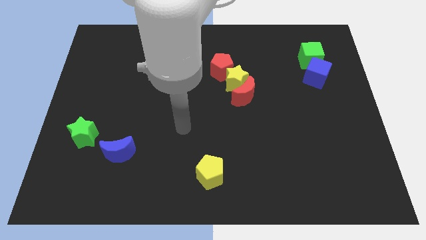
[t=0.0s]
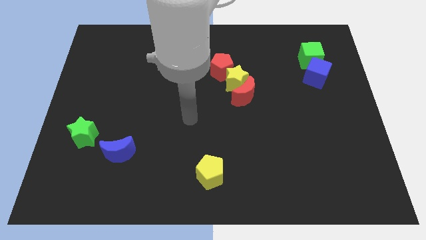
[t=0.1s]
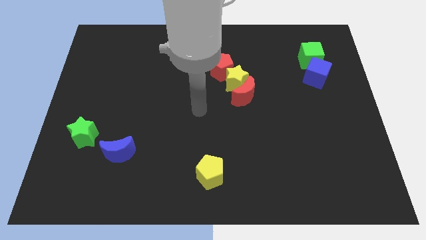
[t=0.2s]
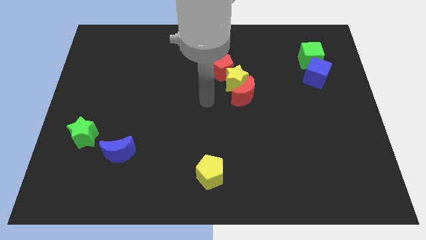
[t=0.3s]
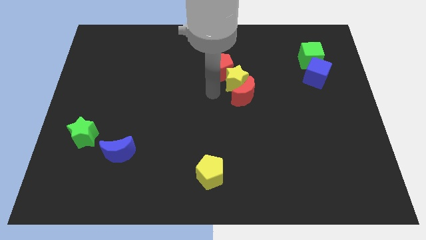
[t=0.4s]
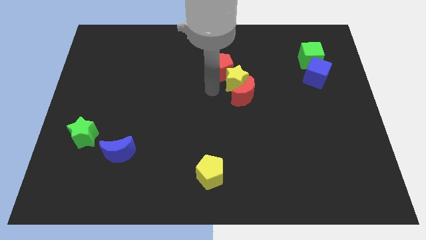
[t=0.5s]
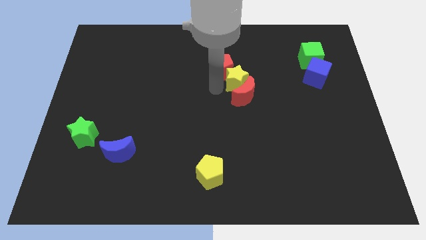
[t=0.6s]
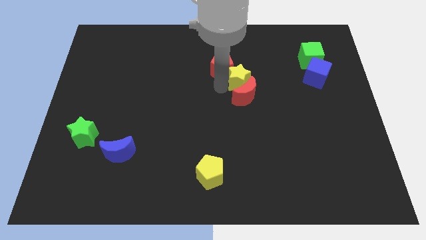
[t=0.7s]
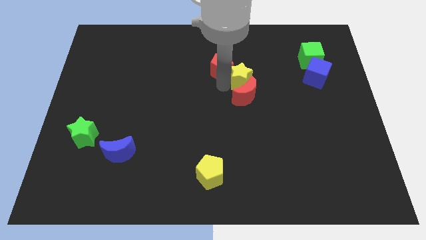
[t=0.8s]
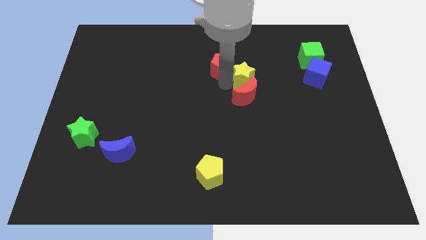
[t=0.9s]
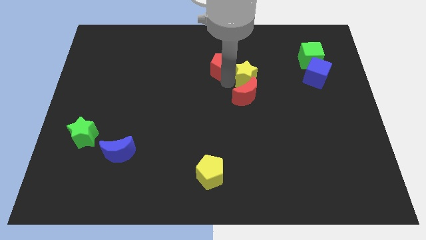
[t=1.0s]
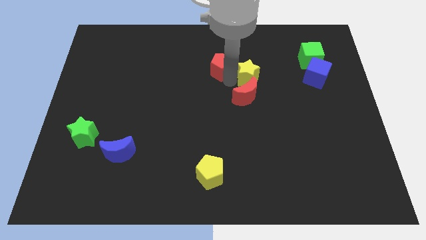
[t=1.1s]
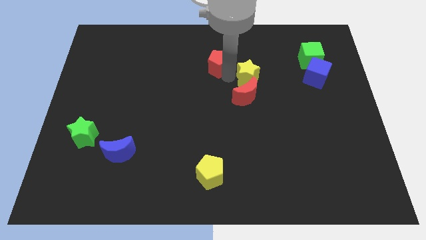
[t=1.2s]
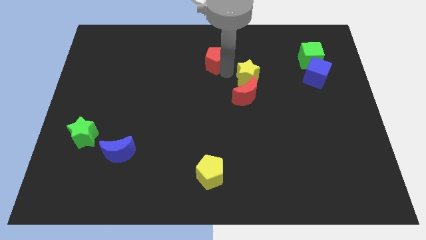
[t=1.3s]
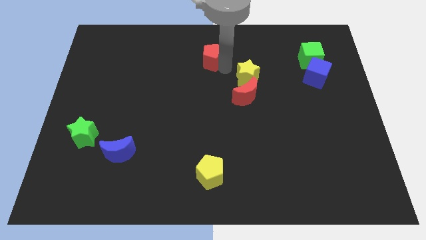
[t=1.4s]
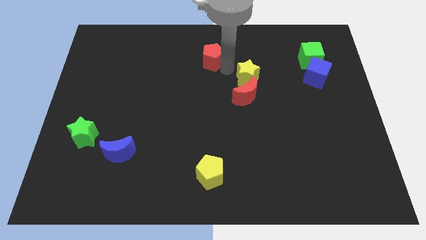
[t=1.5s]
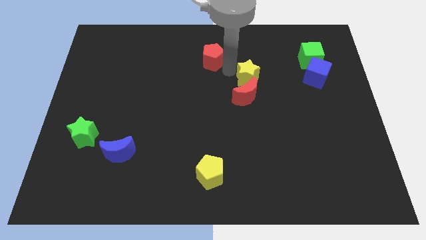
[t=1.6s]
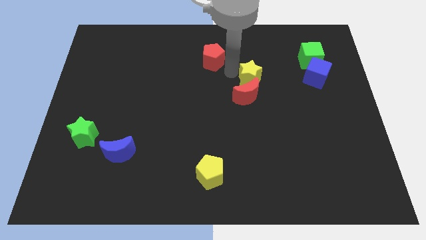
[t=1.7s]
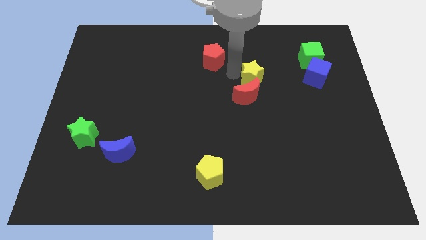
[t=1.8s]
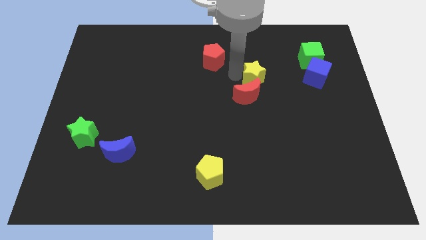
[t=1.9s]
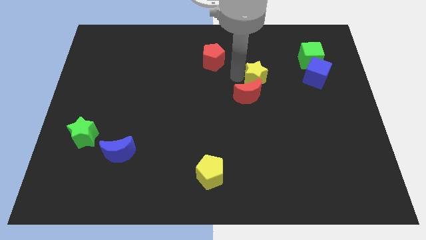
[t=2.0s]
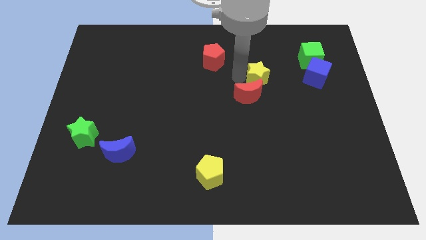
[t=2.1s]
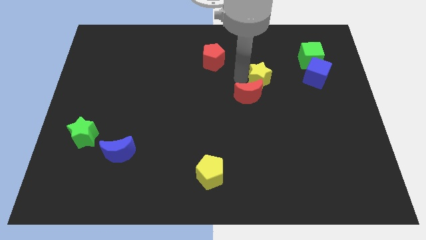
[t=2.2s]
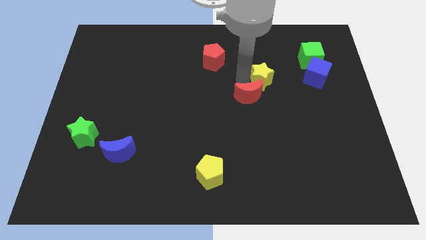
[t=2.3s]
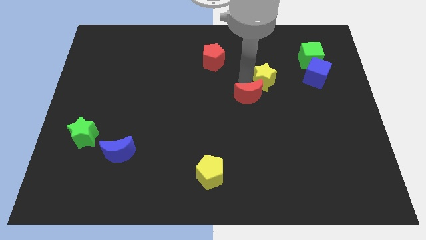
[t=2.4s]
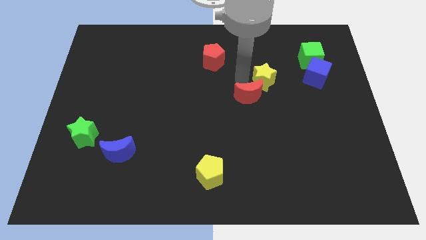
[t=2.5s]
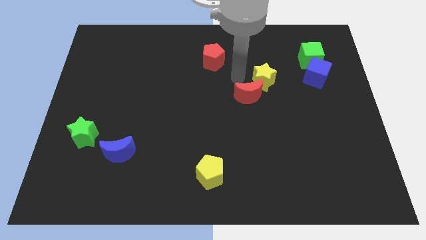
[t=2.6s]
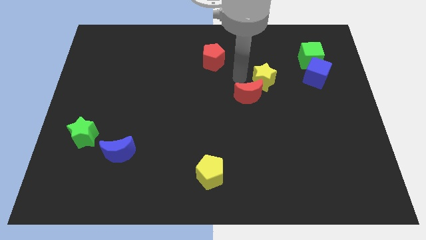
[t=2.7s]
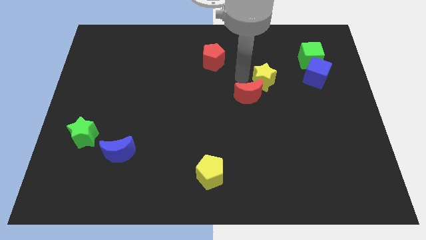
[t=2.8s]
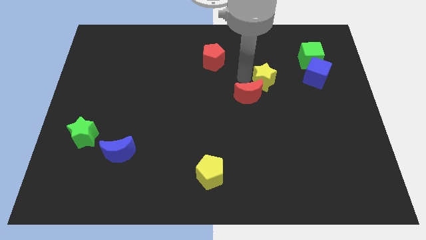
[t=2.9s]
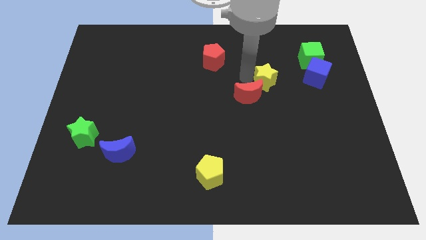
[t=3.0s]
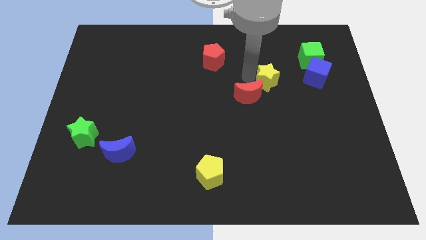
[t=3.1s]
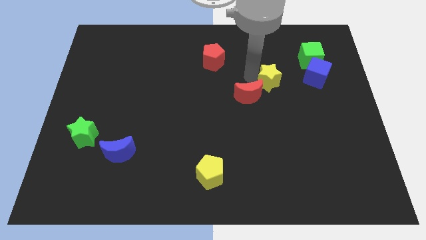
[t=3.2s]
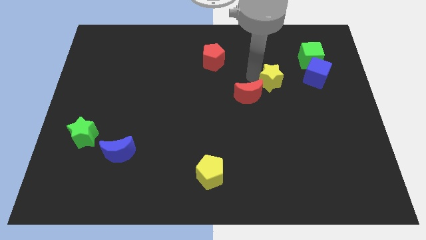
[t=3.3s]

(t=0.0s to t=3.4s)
pull the yellow star apart from the red moon and red pentagon

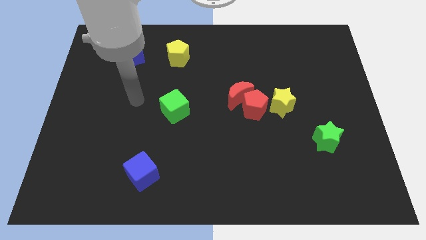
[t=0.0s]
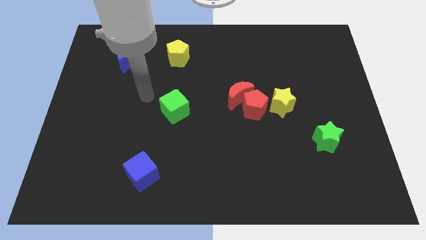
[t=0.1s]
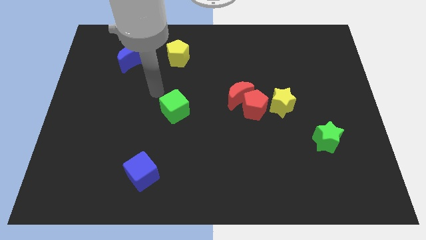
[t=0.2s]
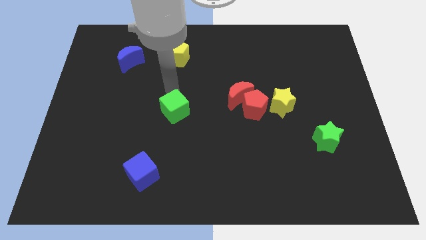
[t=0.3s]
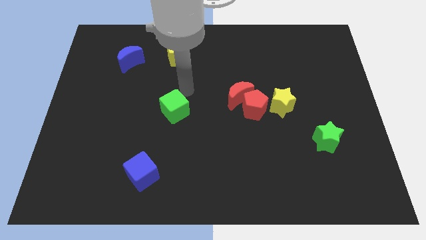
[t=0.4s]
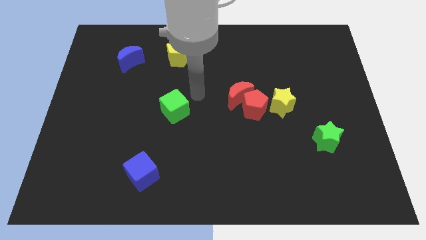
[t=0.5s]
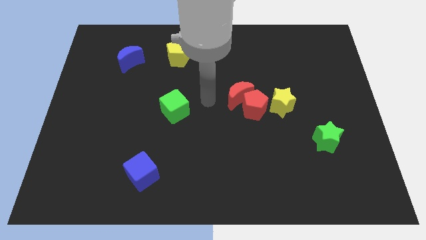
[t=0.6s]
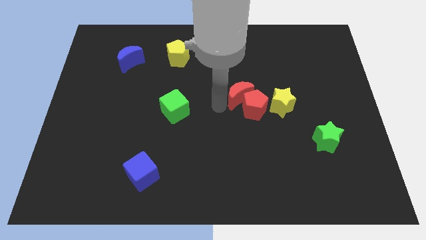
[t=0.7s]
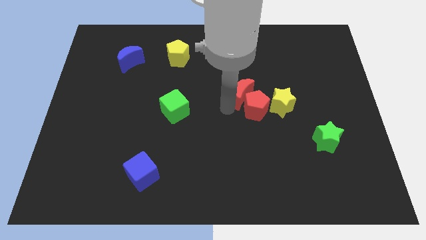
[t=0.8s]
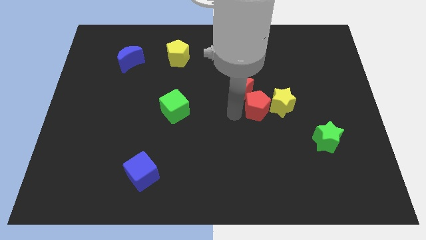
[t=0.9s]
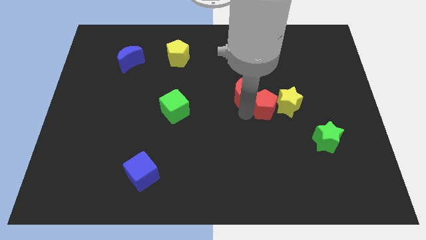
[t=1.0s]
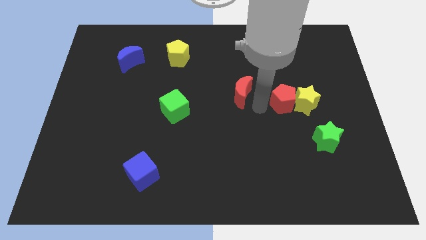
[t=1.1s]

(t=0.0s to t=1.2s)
separate the red moon from the red pentagon

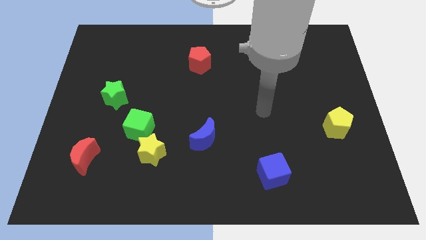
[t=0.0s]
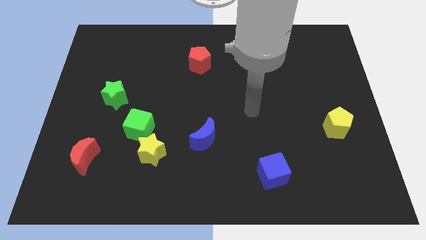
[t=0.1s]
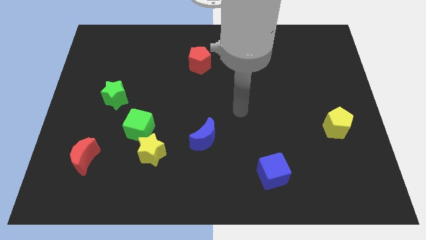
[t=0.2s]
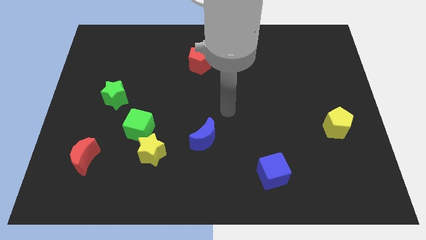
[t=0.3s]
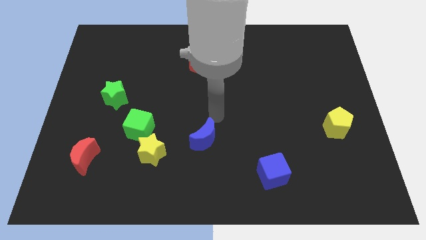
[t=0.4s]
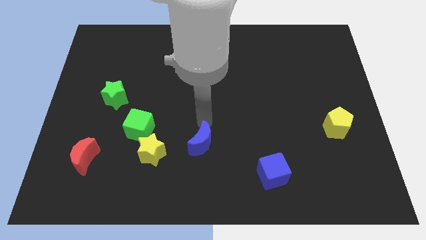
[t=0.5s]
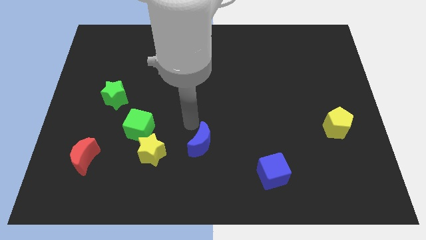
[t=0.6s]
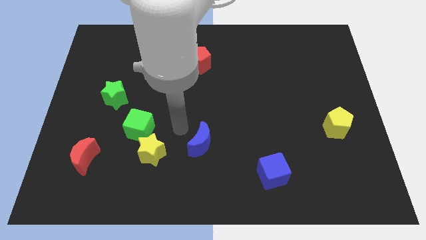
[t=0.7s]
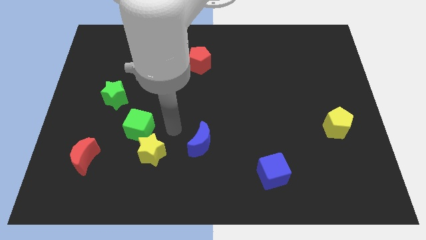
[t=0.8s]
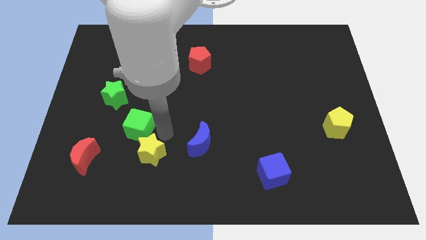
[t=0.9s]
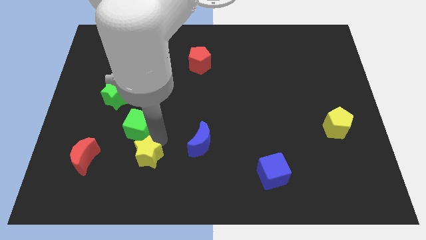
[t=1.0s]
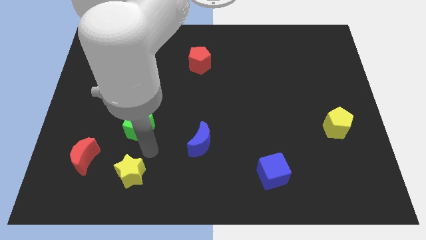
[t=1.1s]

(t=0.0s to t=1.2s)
separate the green cube from the yellow star

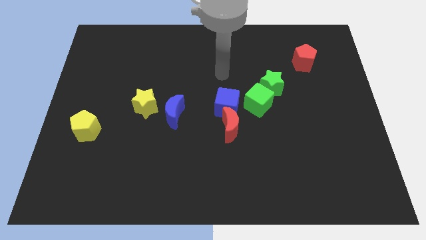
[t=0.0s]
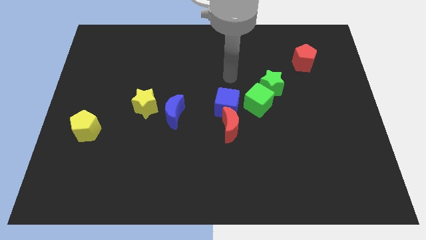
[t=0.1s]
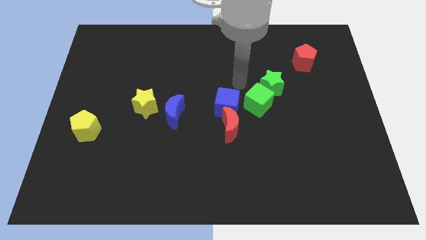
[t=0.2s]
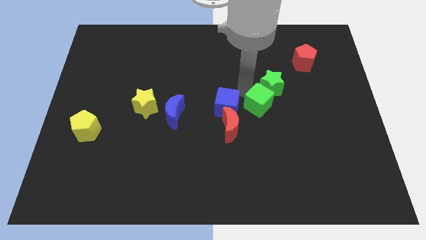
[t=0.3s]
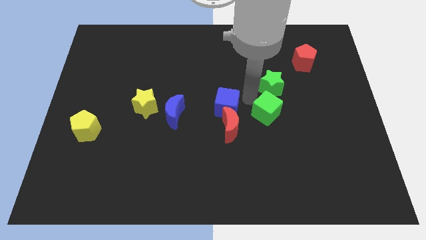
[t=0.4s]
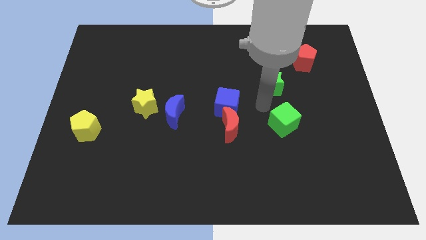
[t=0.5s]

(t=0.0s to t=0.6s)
pull the green star apart from the green cube

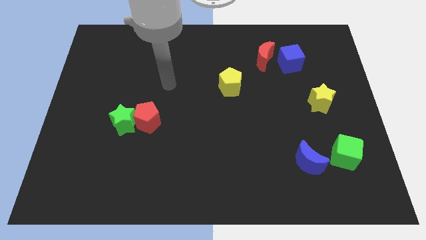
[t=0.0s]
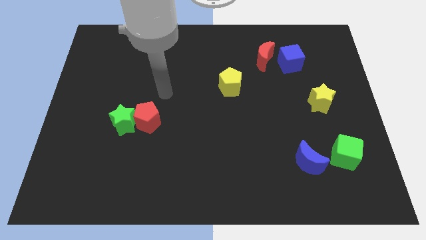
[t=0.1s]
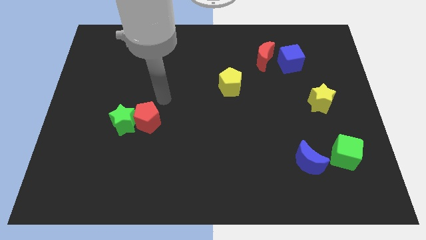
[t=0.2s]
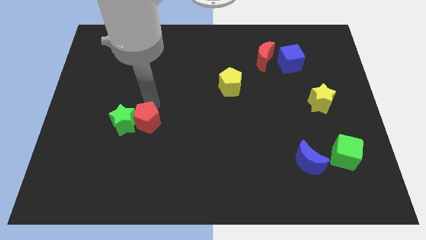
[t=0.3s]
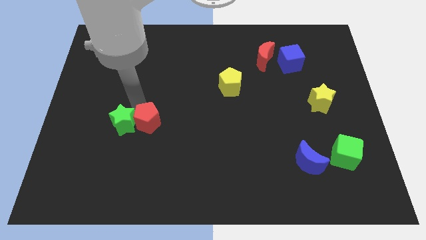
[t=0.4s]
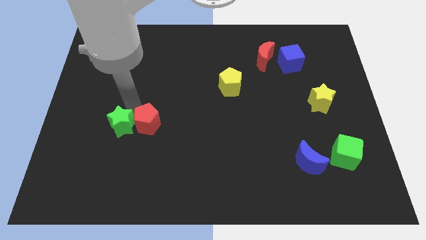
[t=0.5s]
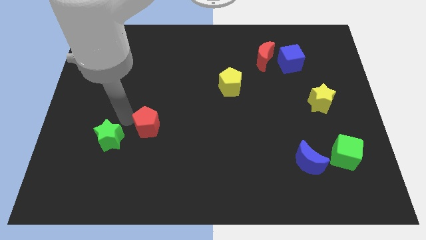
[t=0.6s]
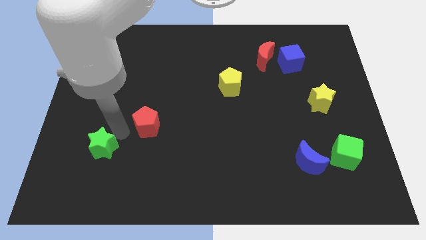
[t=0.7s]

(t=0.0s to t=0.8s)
separate the red pentagon from the green star

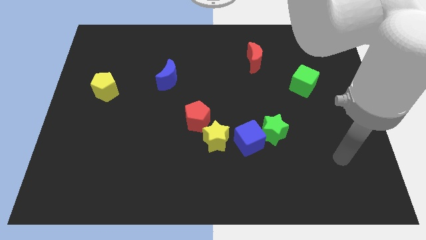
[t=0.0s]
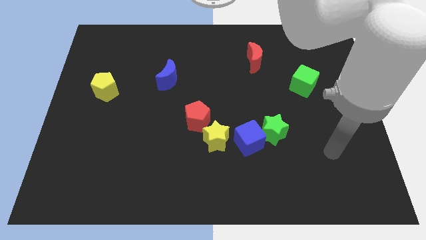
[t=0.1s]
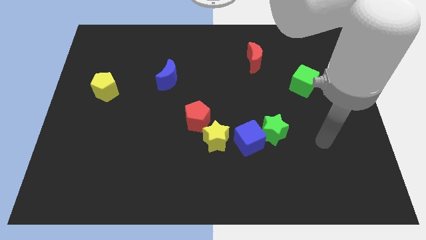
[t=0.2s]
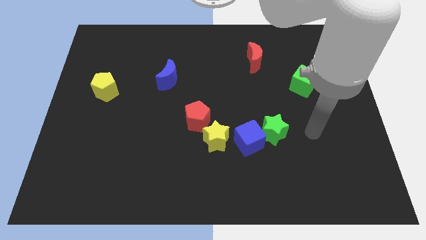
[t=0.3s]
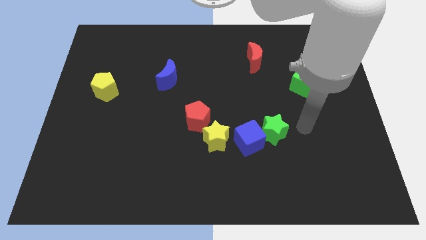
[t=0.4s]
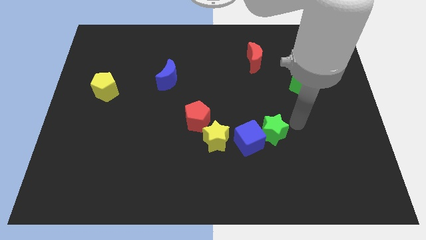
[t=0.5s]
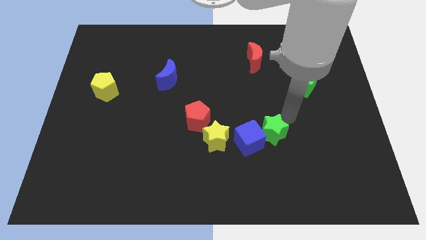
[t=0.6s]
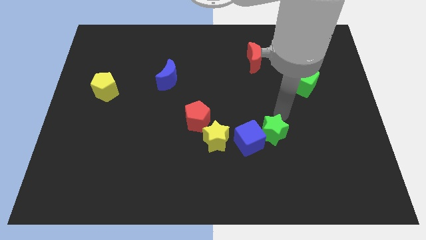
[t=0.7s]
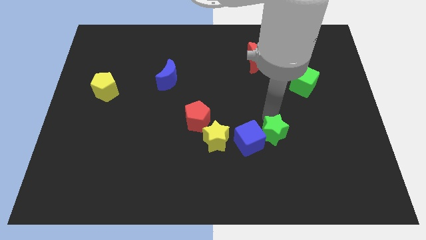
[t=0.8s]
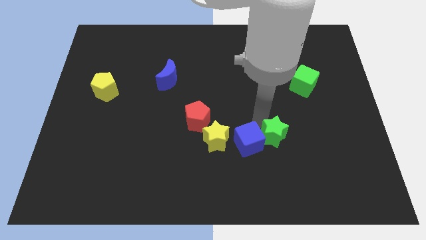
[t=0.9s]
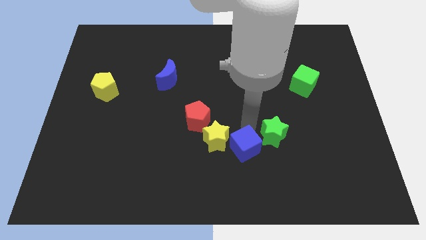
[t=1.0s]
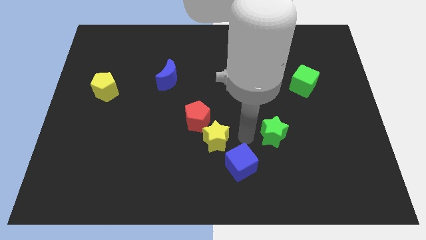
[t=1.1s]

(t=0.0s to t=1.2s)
separate the green star from the blue cube

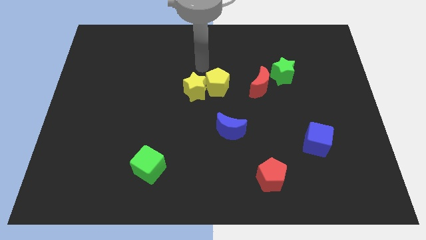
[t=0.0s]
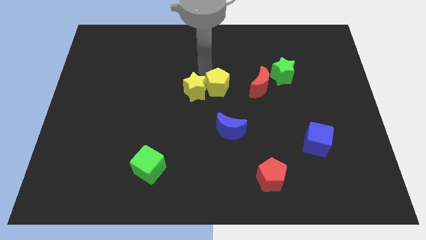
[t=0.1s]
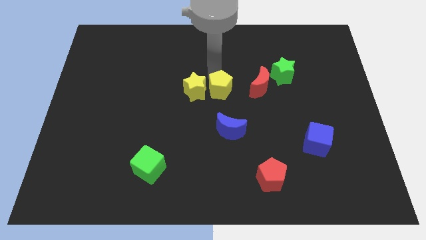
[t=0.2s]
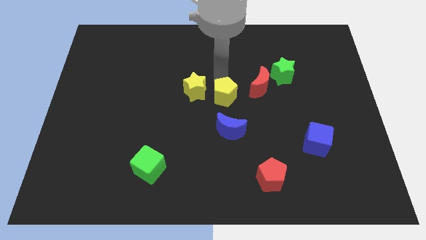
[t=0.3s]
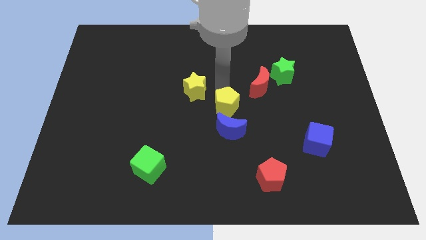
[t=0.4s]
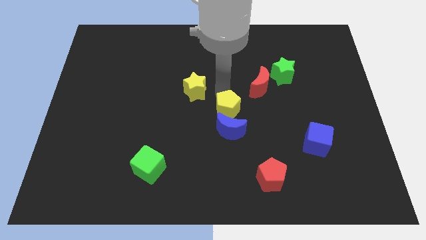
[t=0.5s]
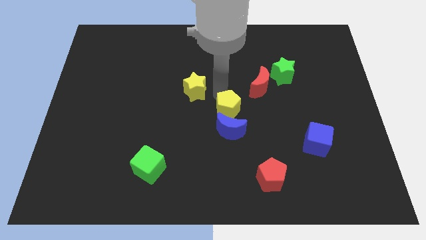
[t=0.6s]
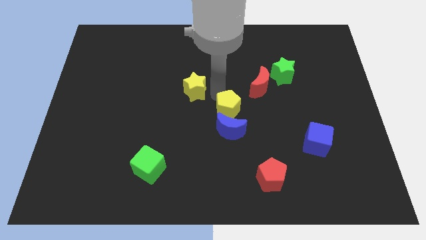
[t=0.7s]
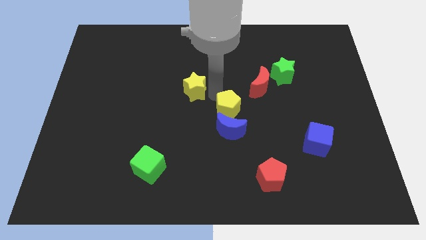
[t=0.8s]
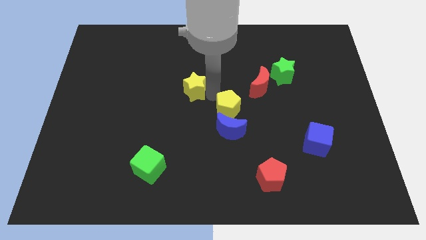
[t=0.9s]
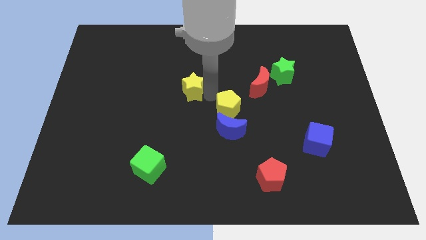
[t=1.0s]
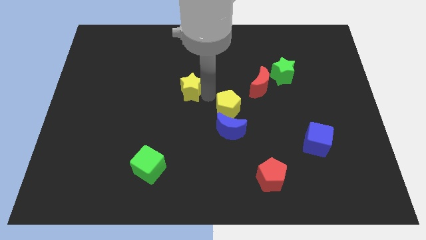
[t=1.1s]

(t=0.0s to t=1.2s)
move the yellow star away from the yellow pentagon
